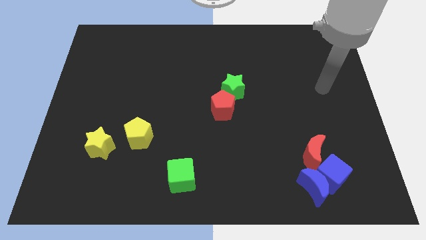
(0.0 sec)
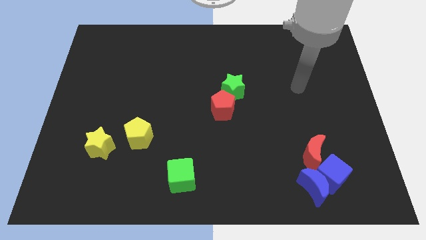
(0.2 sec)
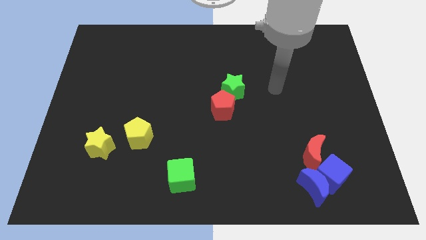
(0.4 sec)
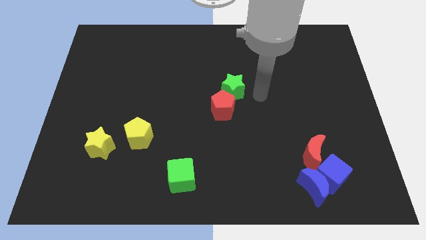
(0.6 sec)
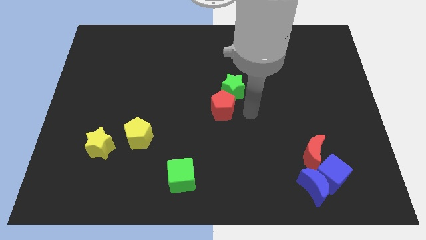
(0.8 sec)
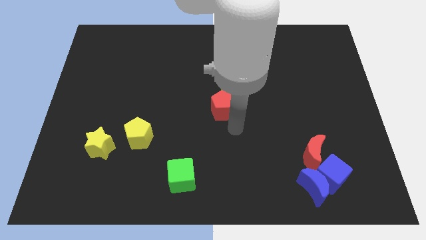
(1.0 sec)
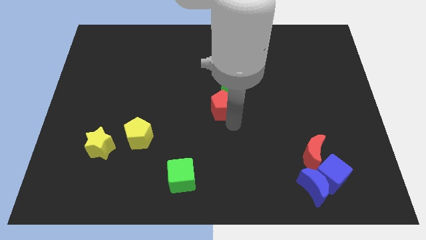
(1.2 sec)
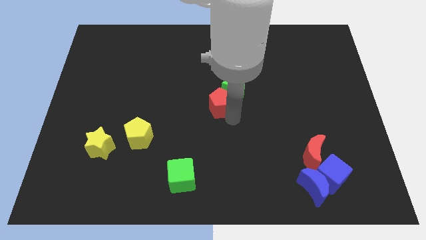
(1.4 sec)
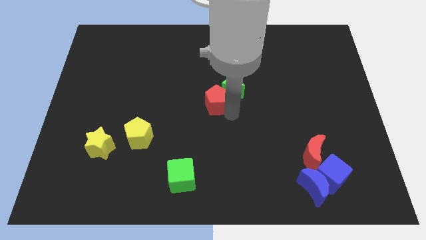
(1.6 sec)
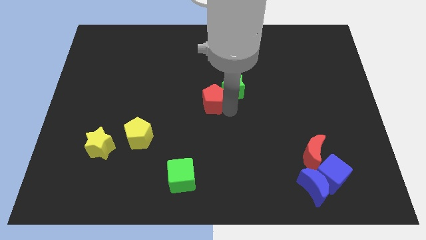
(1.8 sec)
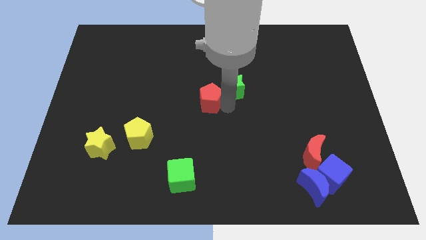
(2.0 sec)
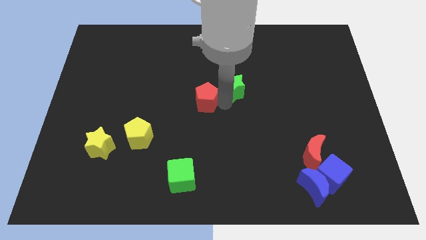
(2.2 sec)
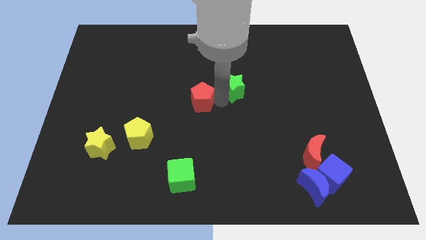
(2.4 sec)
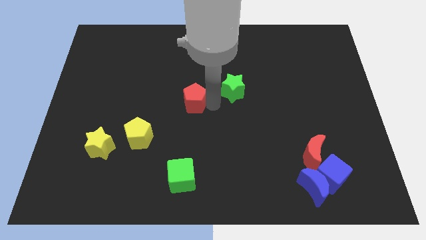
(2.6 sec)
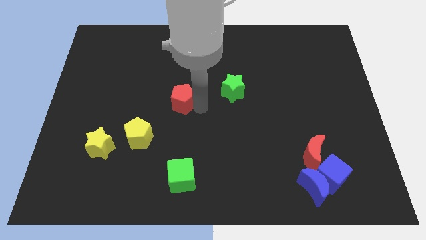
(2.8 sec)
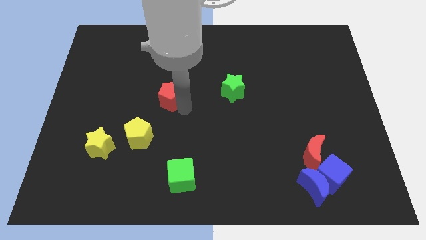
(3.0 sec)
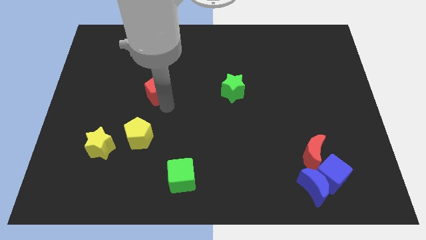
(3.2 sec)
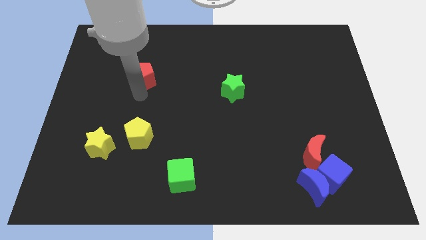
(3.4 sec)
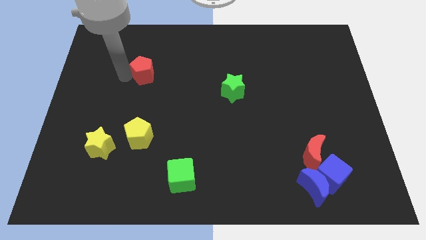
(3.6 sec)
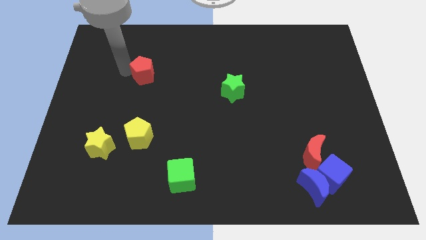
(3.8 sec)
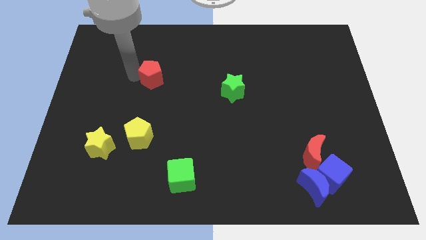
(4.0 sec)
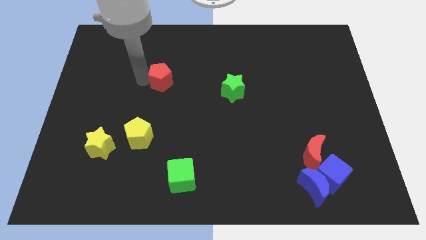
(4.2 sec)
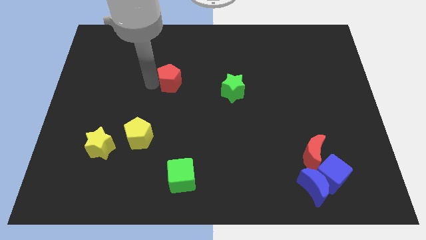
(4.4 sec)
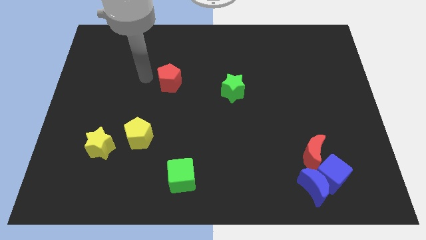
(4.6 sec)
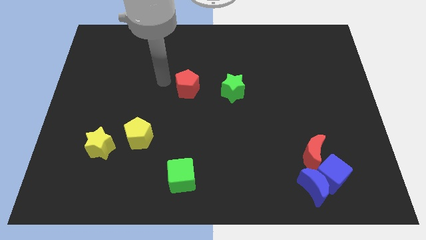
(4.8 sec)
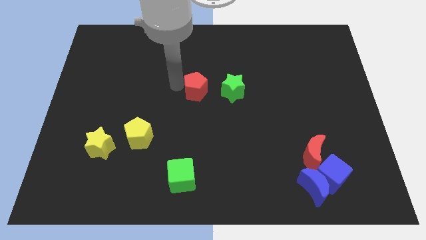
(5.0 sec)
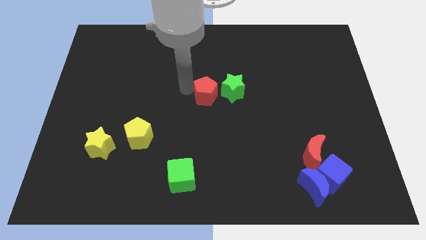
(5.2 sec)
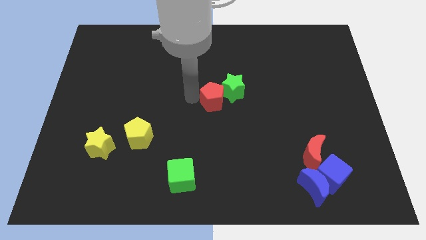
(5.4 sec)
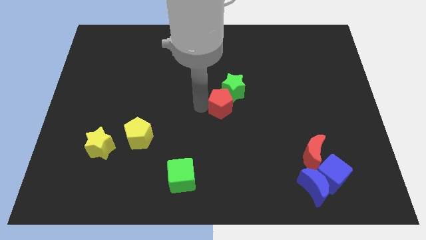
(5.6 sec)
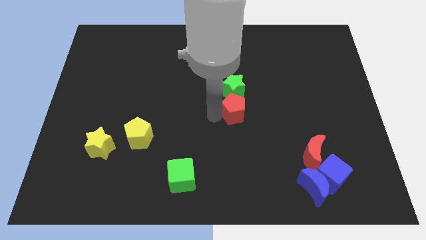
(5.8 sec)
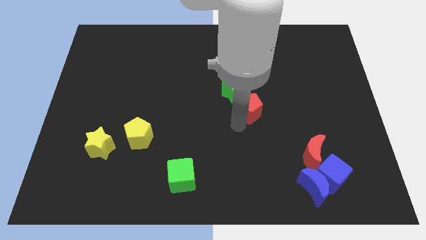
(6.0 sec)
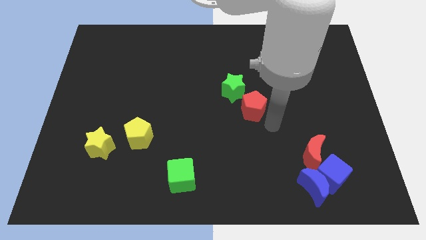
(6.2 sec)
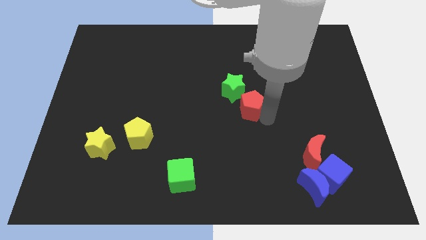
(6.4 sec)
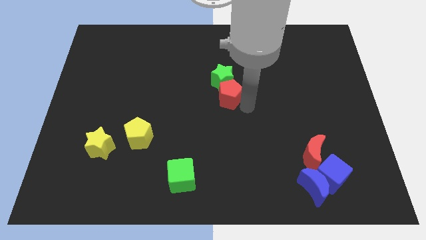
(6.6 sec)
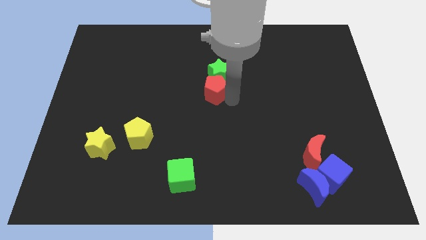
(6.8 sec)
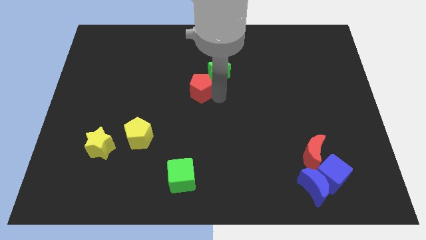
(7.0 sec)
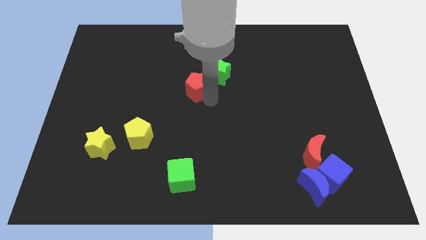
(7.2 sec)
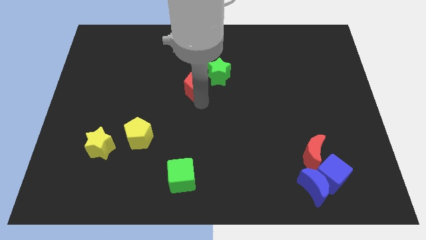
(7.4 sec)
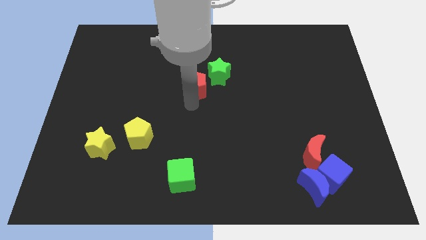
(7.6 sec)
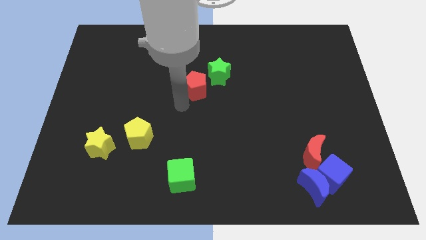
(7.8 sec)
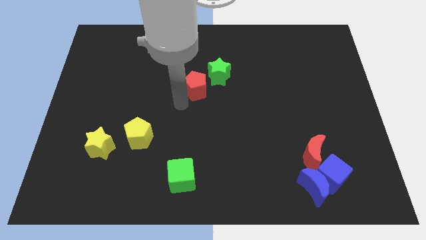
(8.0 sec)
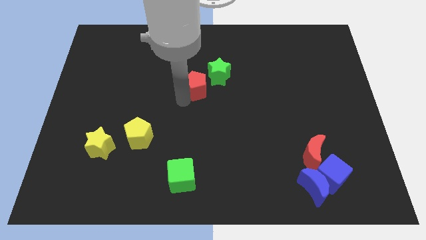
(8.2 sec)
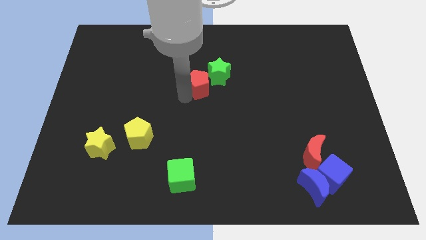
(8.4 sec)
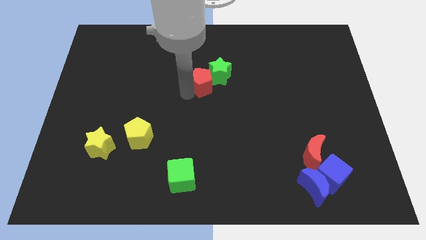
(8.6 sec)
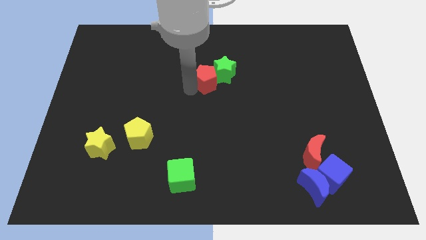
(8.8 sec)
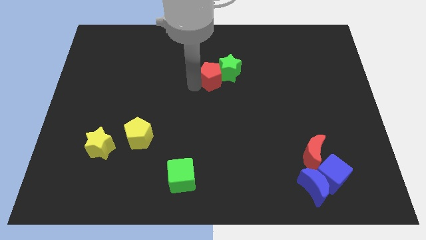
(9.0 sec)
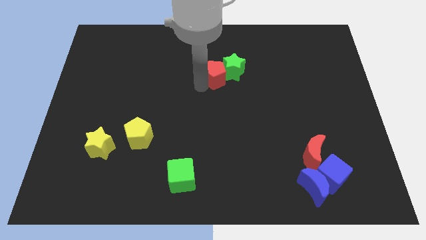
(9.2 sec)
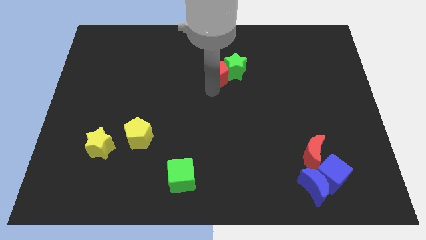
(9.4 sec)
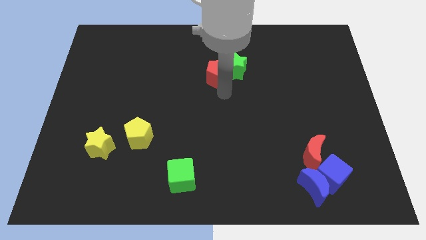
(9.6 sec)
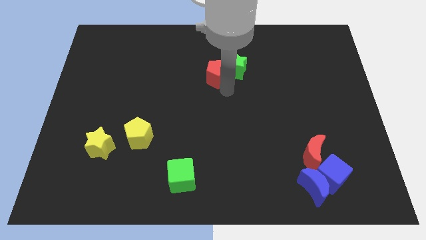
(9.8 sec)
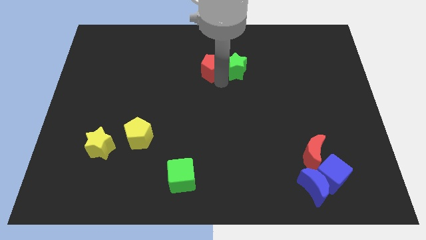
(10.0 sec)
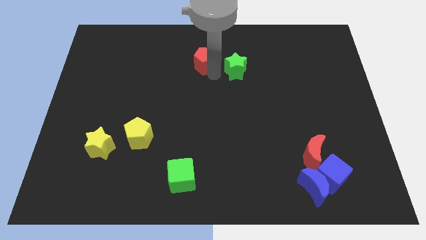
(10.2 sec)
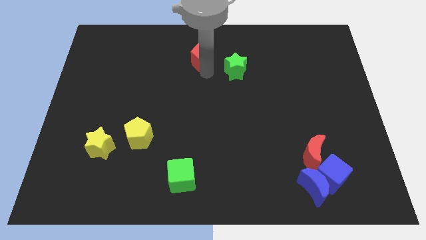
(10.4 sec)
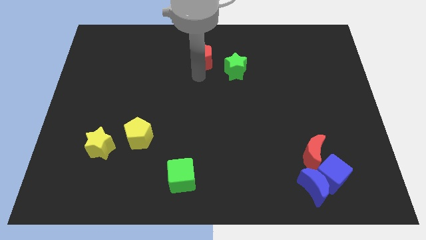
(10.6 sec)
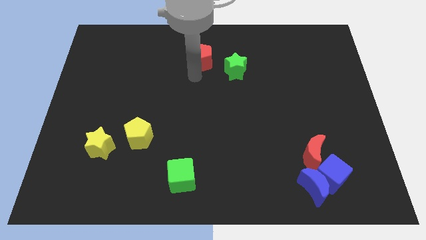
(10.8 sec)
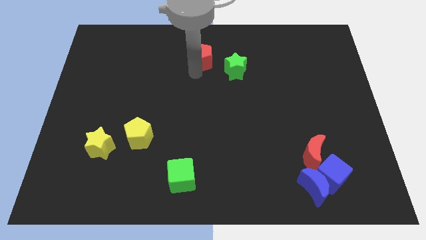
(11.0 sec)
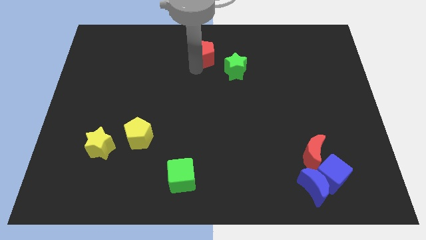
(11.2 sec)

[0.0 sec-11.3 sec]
move the red pentagon to the top side
